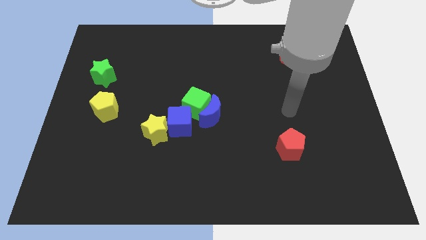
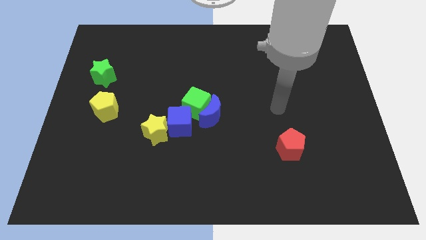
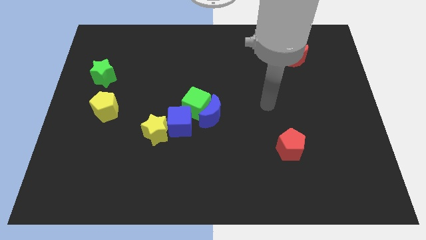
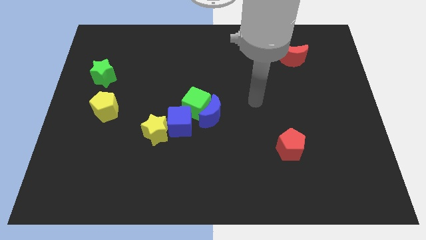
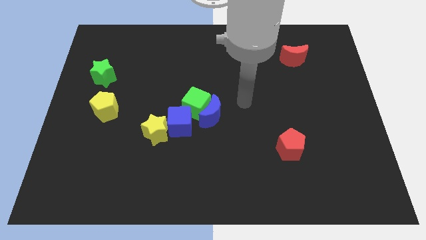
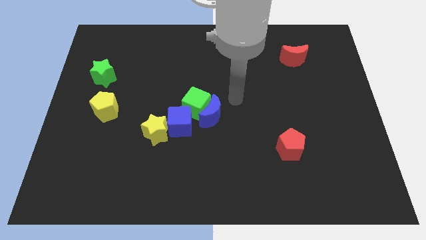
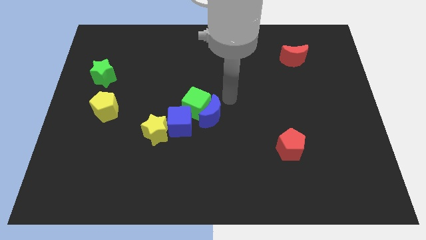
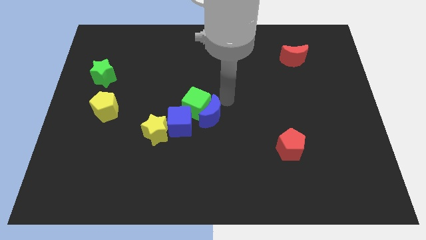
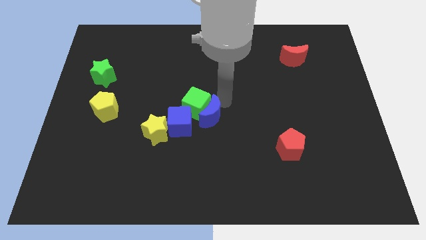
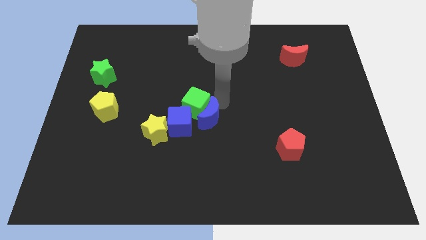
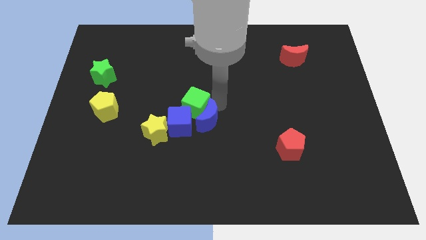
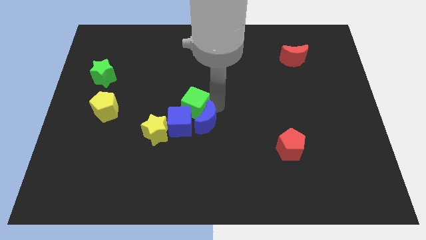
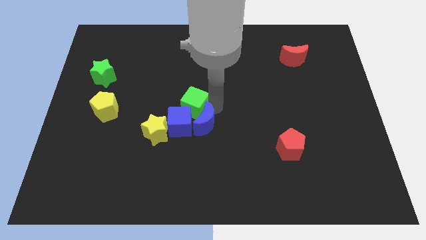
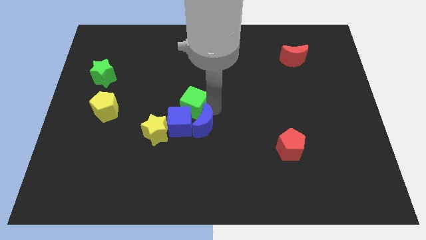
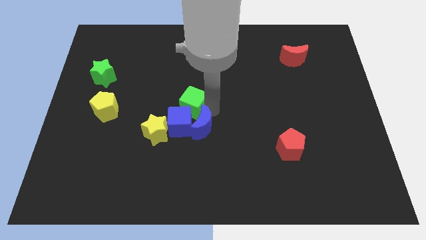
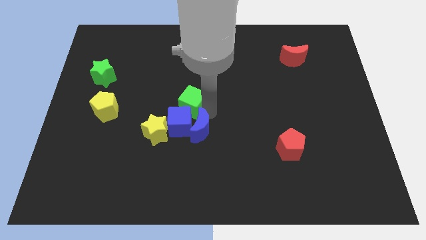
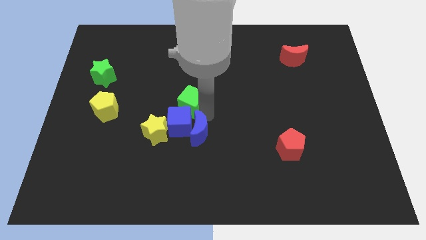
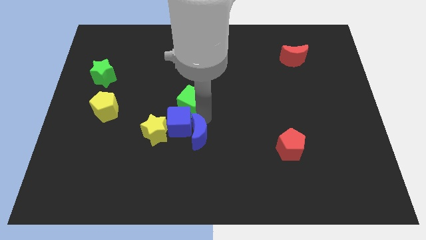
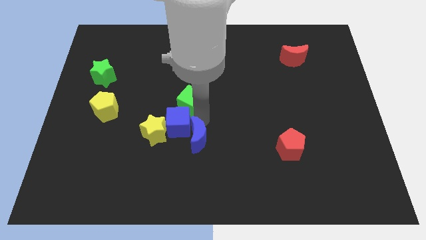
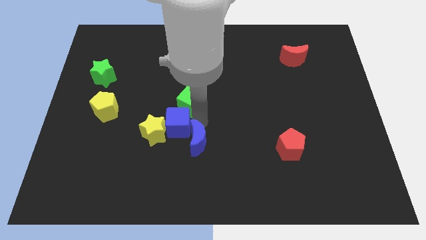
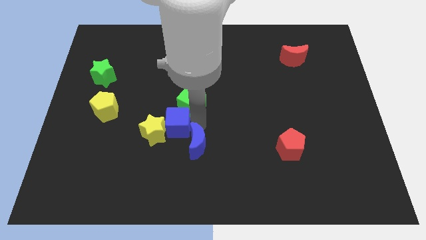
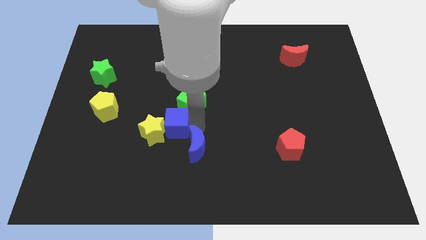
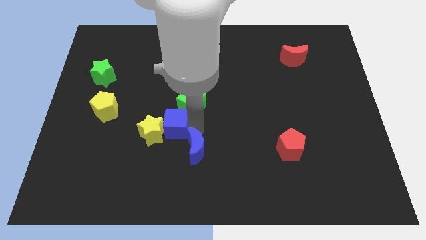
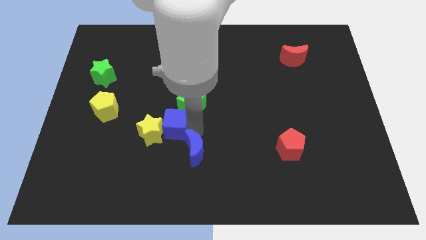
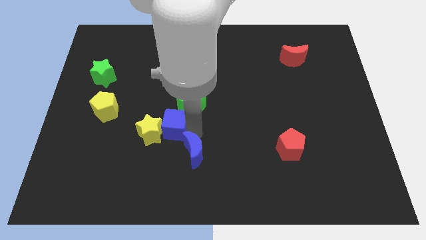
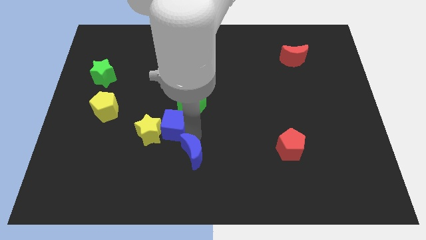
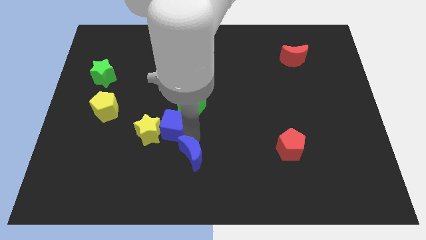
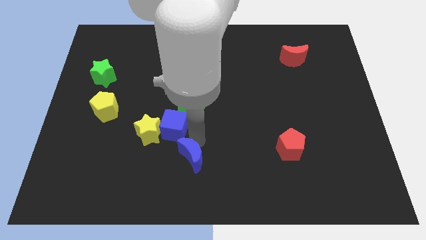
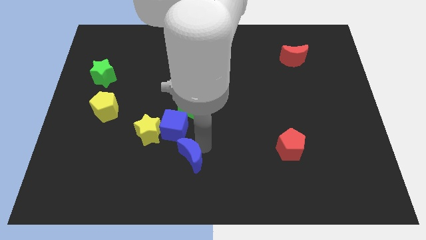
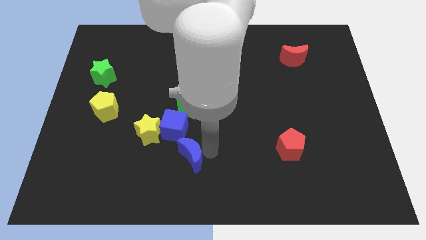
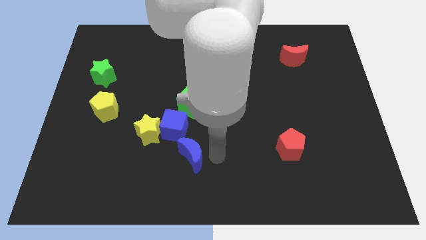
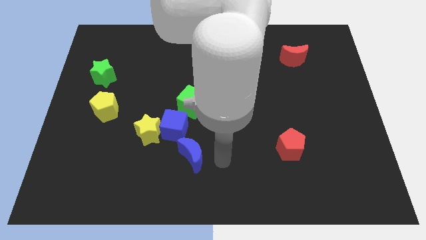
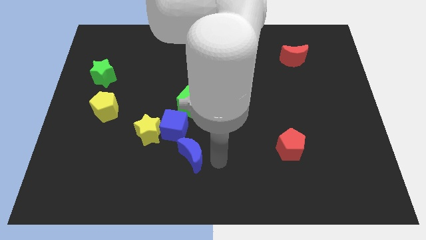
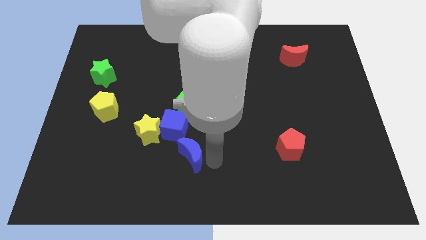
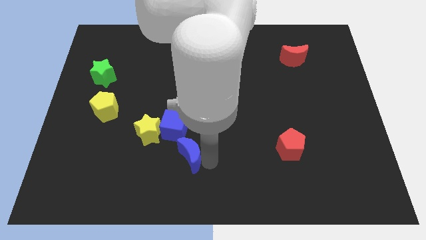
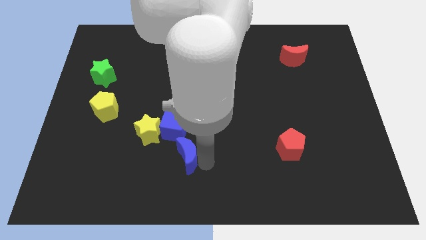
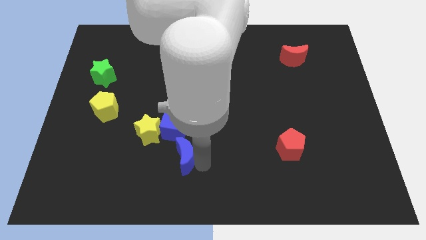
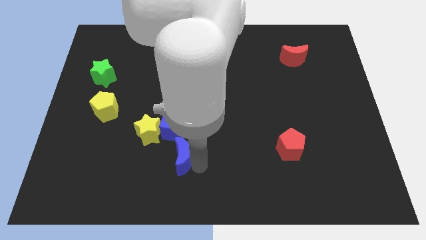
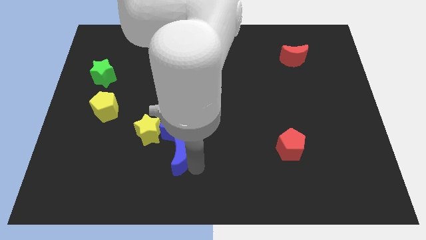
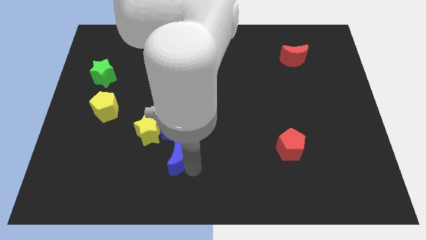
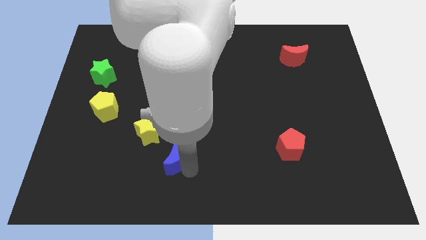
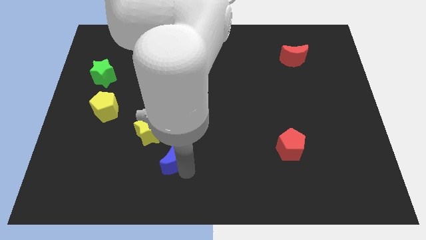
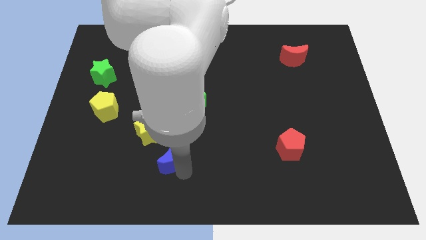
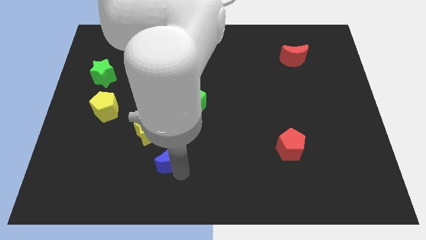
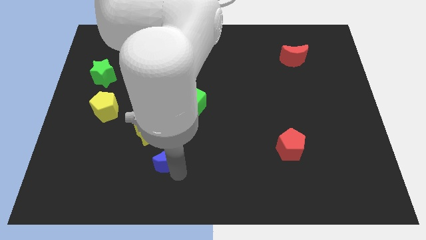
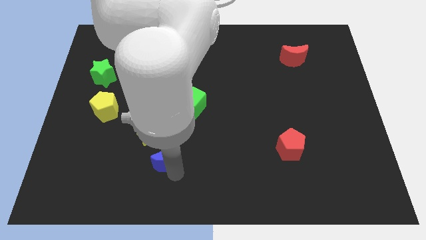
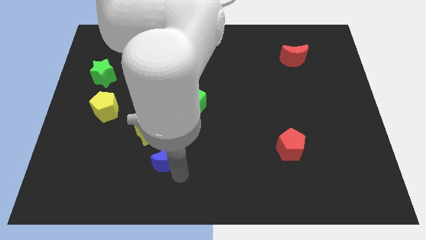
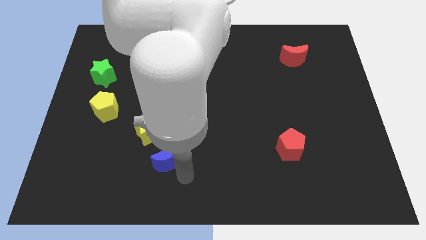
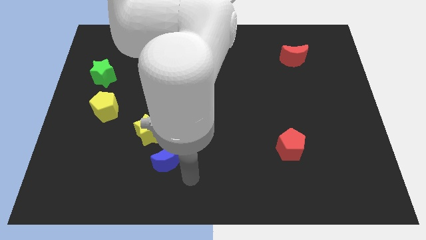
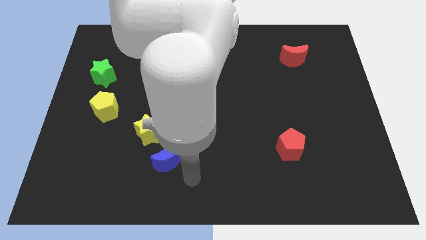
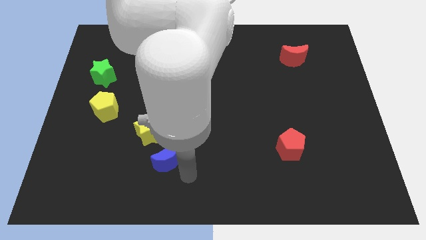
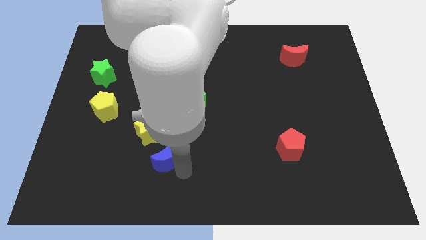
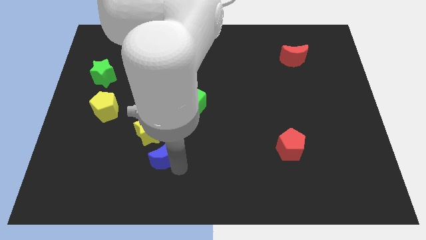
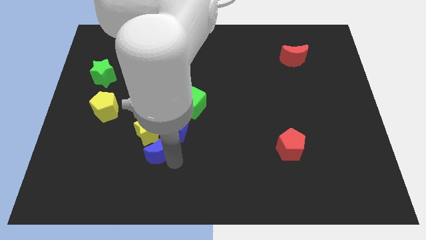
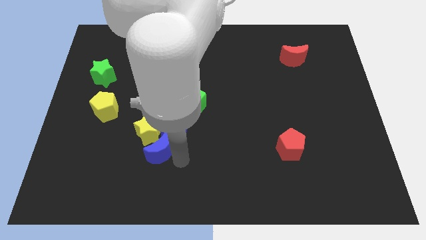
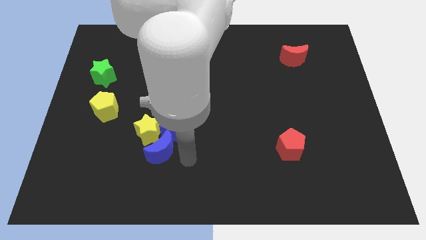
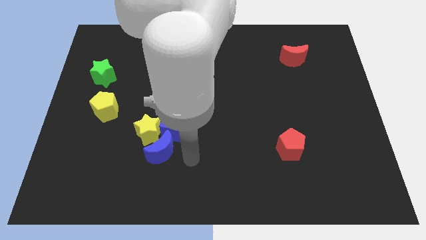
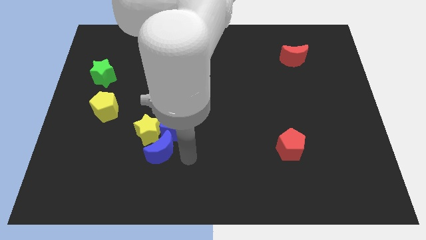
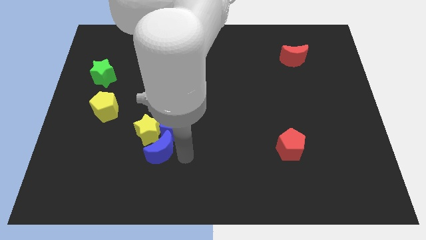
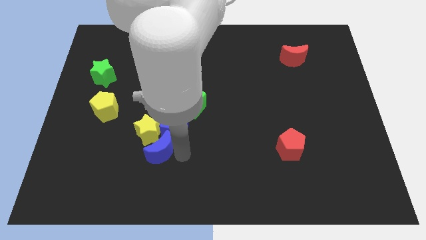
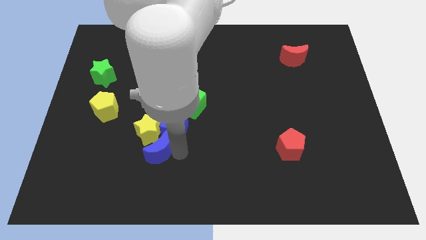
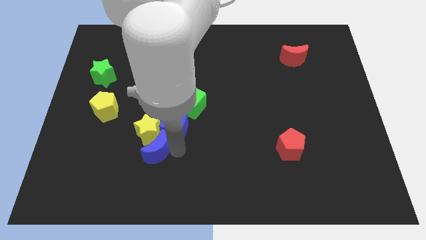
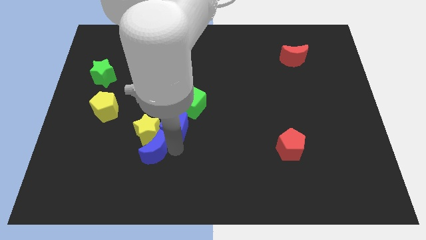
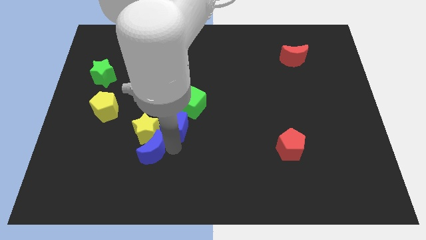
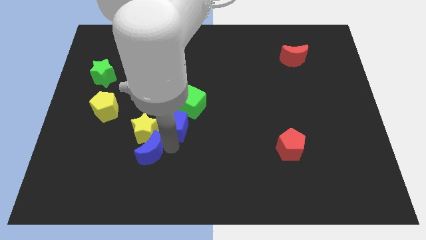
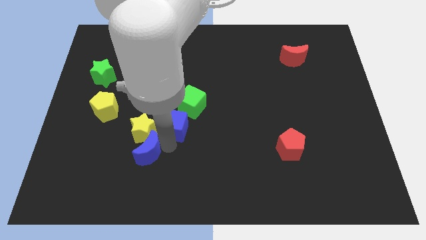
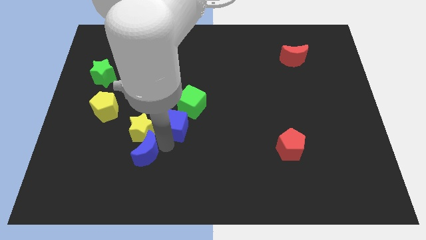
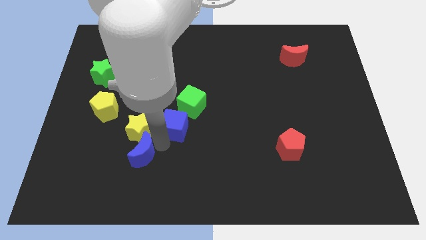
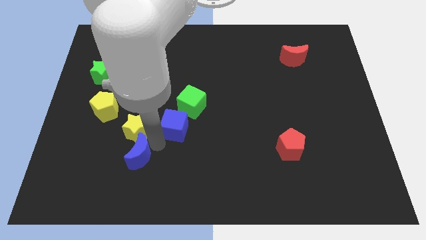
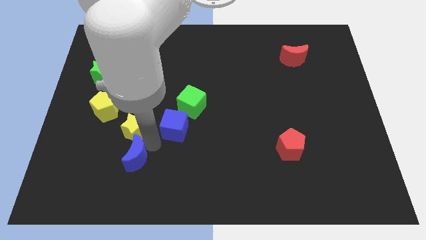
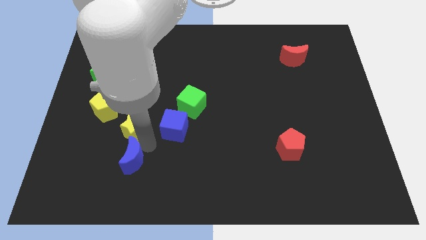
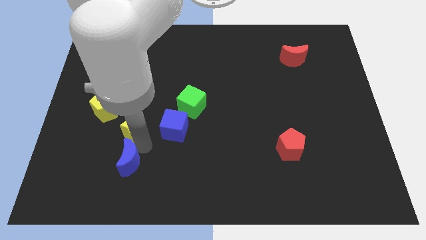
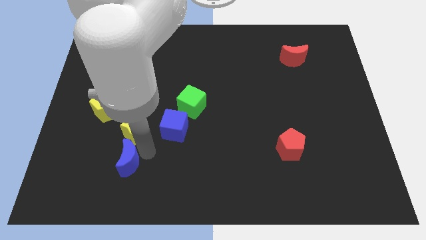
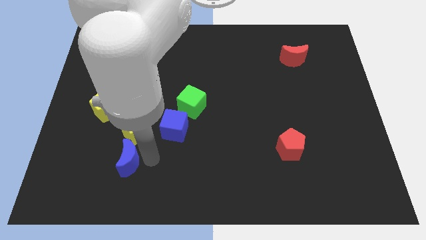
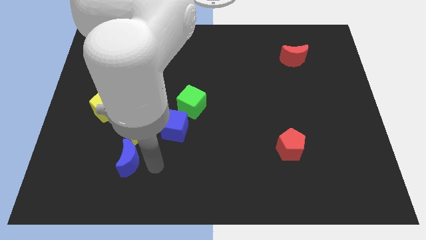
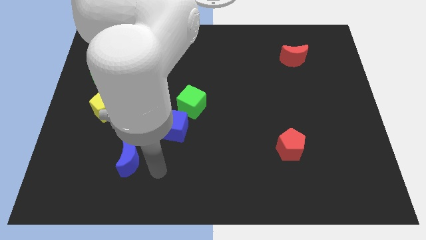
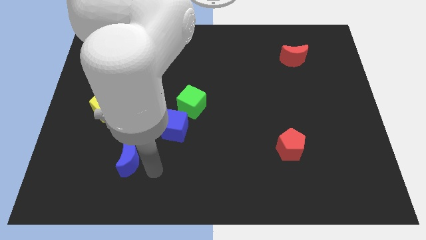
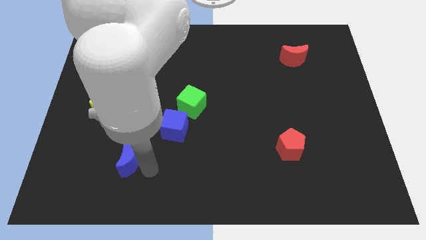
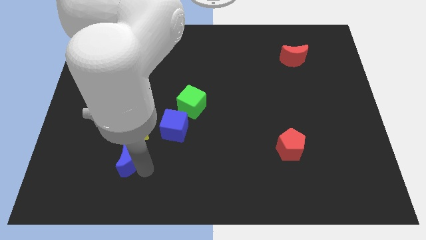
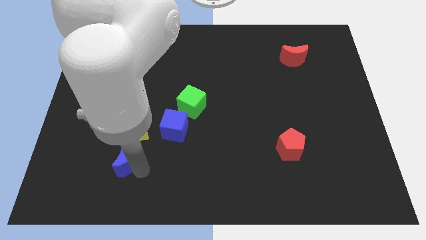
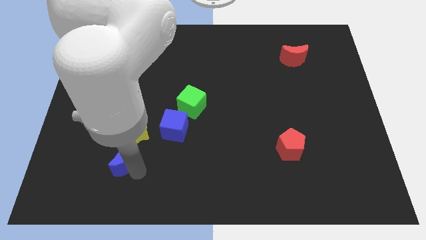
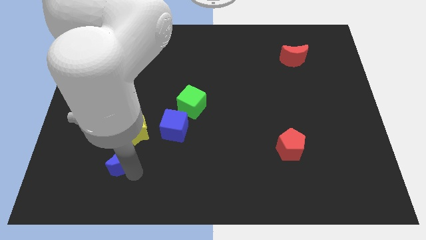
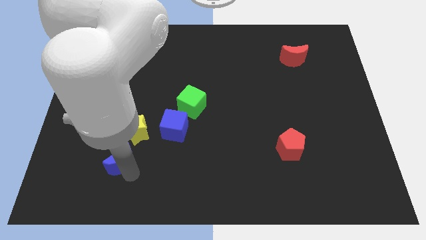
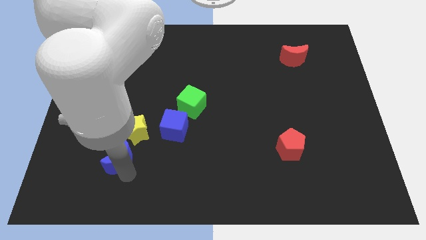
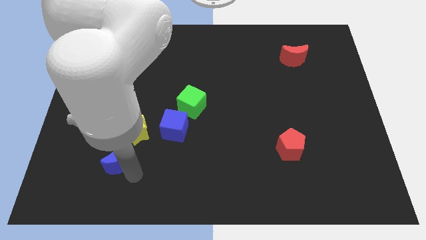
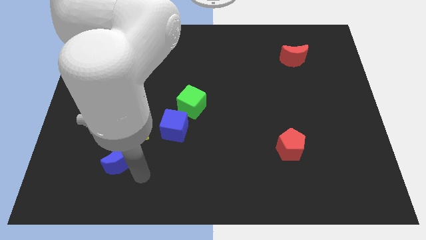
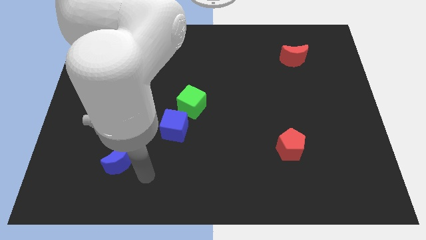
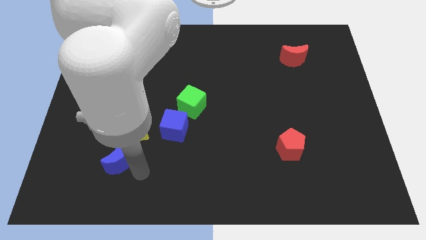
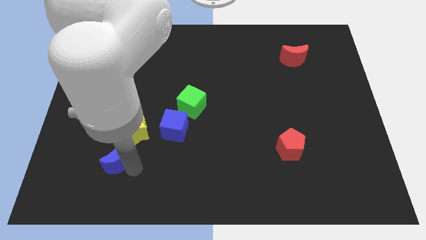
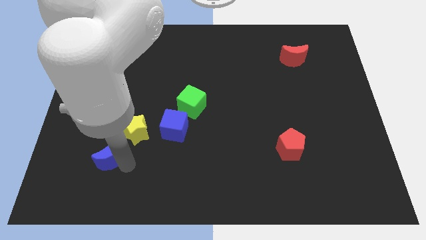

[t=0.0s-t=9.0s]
put the blue moon below the yellow pentagon
